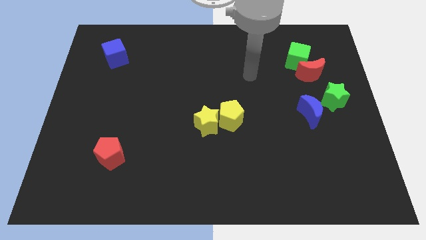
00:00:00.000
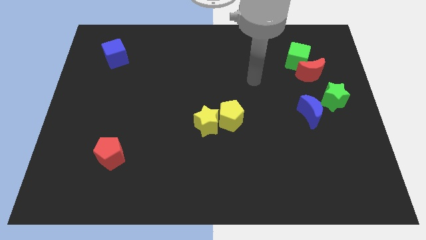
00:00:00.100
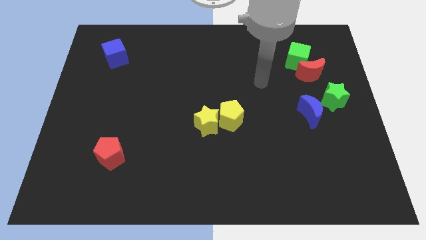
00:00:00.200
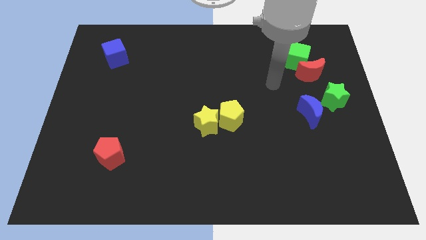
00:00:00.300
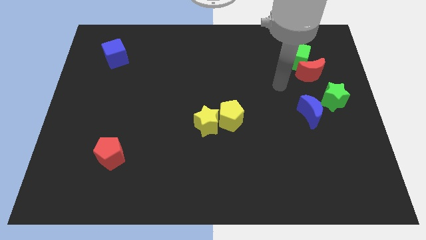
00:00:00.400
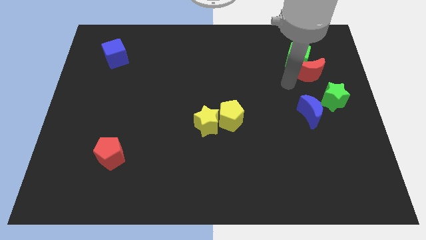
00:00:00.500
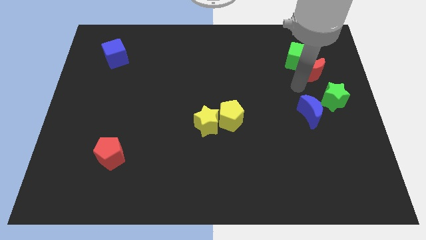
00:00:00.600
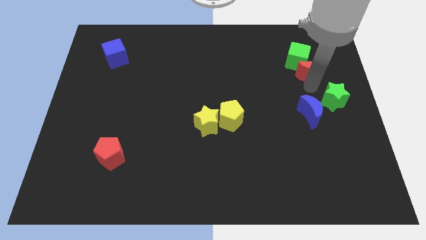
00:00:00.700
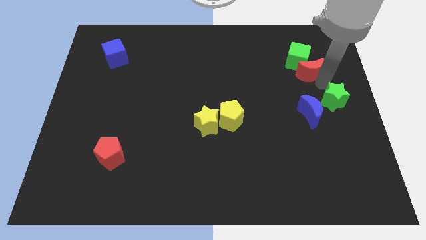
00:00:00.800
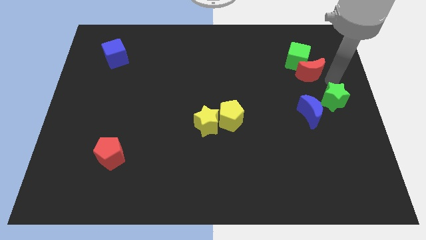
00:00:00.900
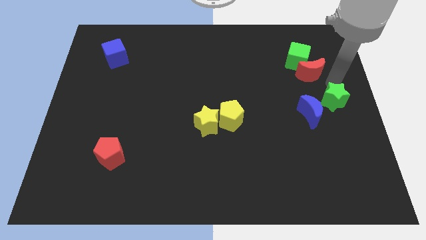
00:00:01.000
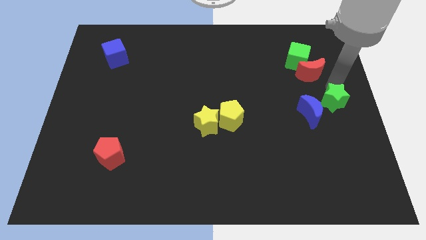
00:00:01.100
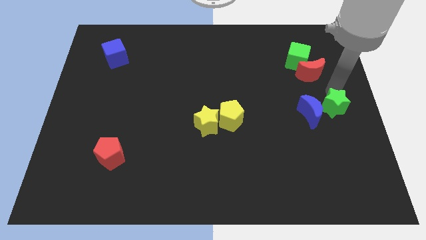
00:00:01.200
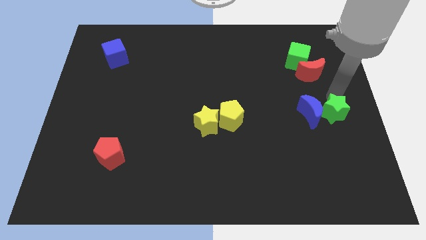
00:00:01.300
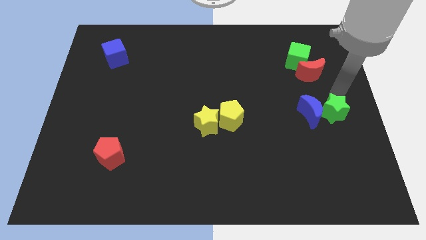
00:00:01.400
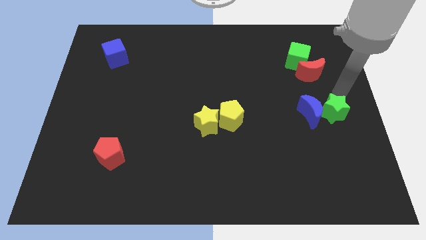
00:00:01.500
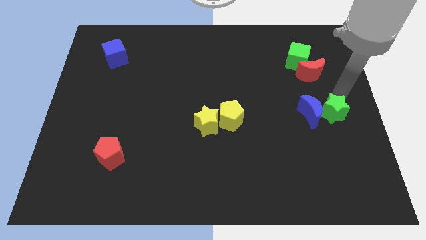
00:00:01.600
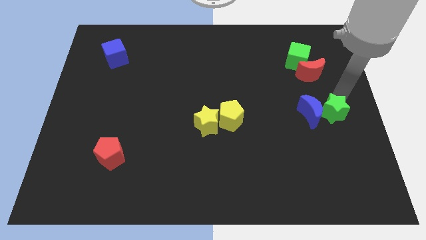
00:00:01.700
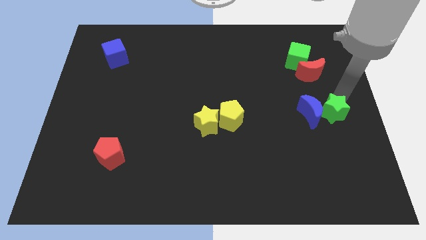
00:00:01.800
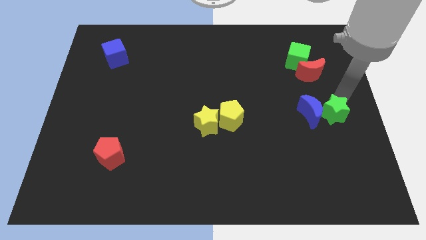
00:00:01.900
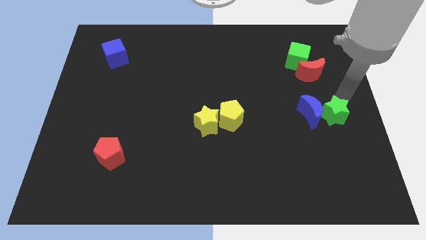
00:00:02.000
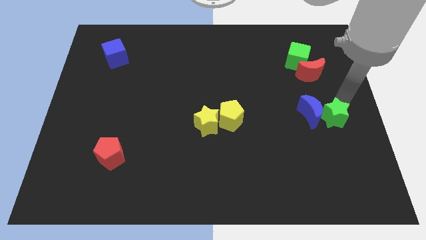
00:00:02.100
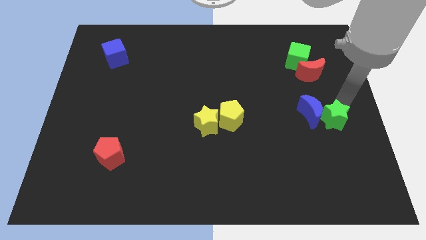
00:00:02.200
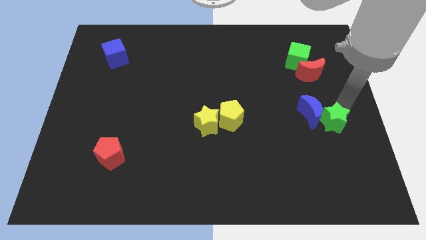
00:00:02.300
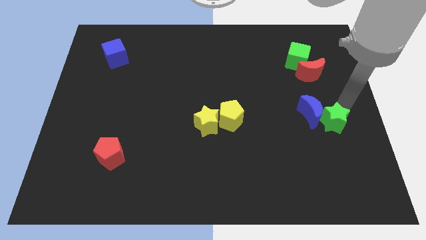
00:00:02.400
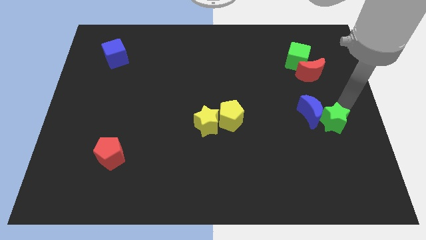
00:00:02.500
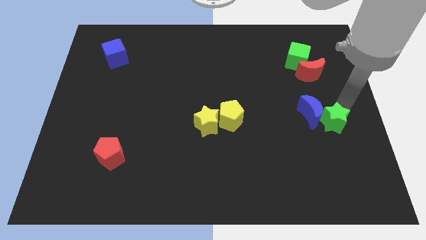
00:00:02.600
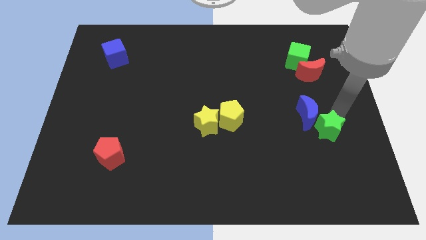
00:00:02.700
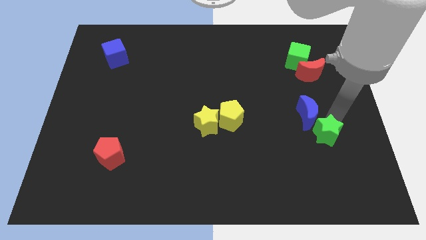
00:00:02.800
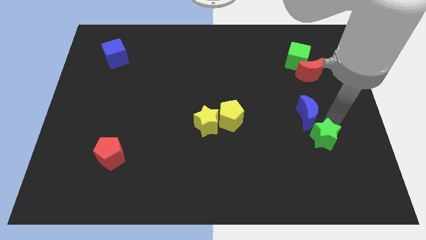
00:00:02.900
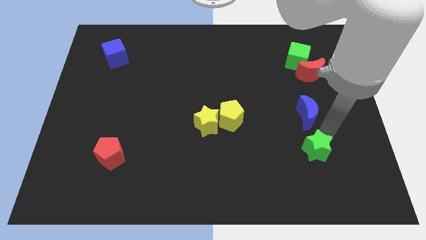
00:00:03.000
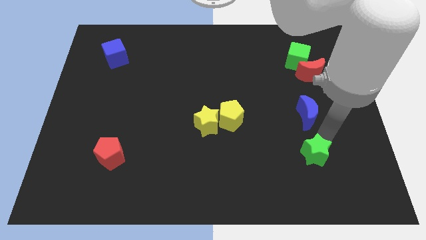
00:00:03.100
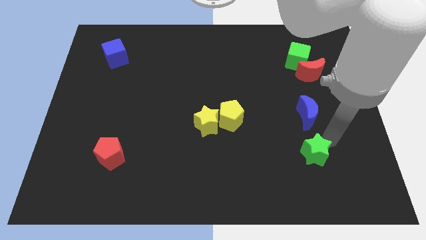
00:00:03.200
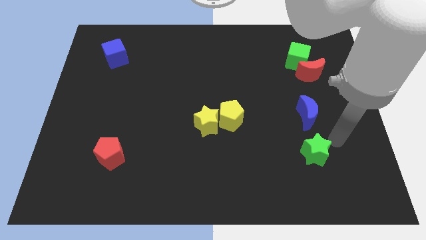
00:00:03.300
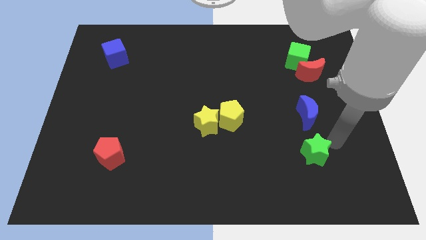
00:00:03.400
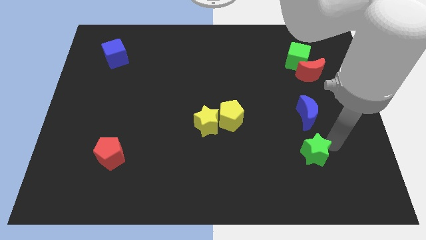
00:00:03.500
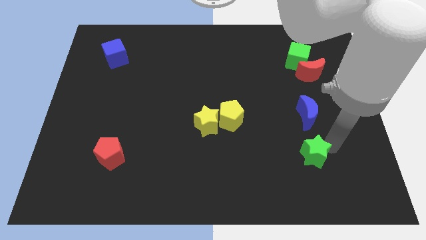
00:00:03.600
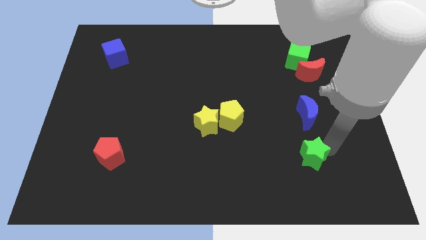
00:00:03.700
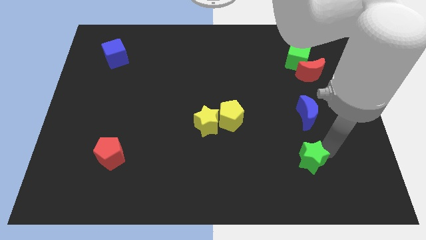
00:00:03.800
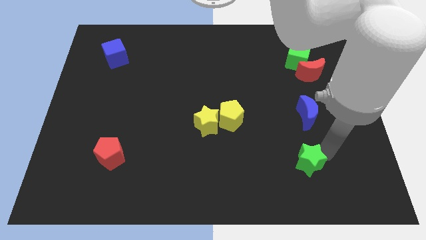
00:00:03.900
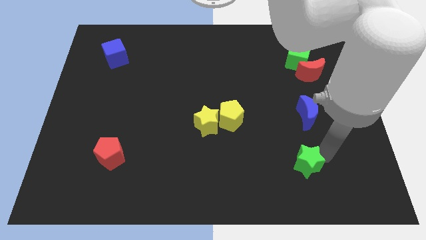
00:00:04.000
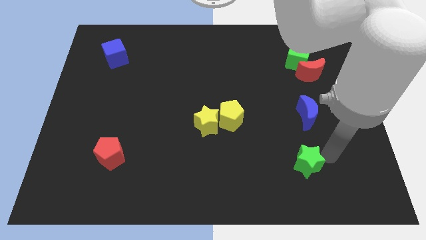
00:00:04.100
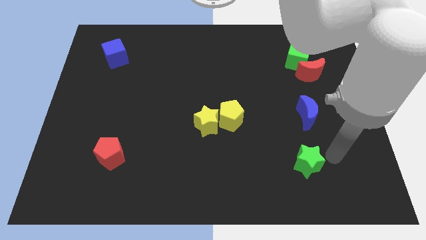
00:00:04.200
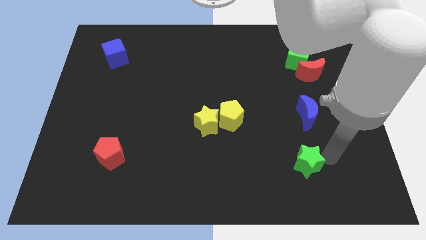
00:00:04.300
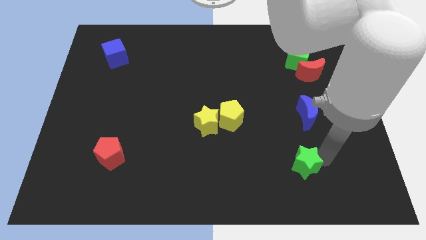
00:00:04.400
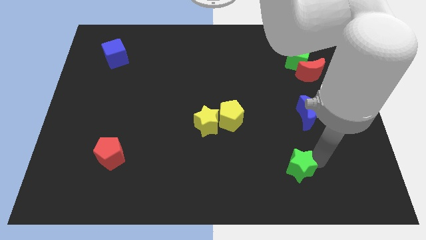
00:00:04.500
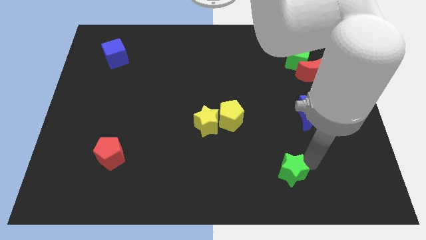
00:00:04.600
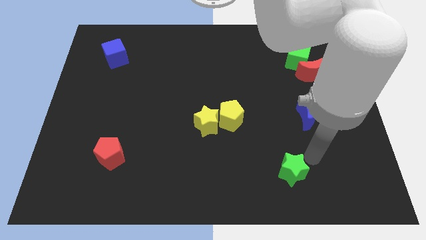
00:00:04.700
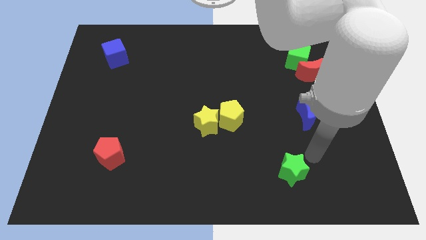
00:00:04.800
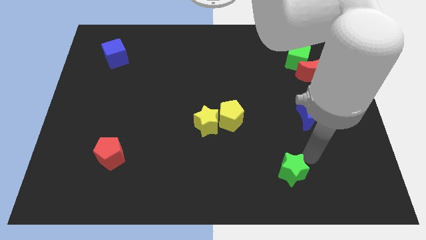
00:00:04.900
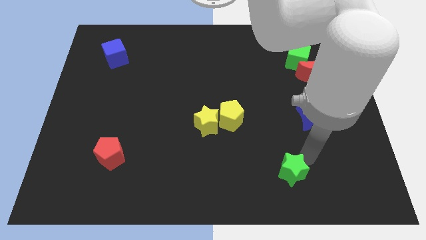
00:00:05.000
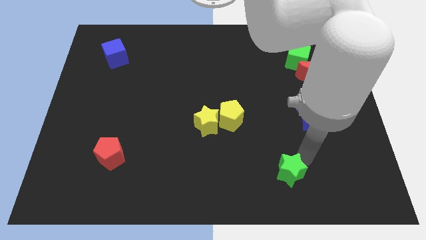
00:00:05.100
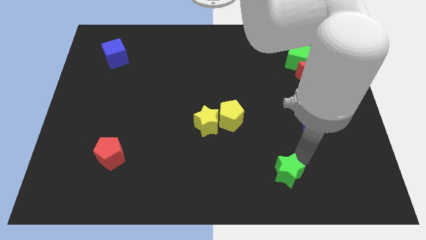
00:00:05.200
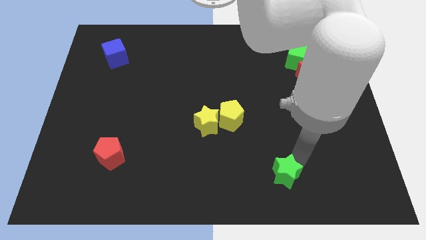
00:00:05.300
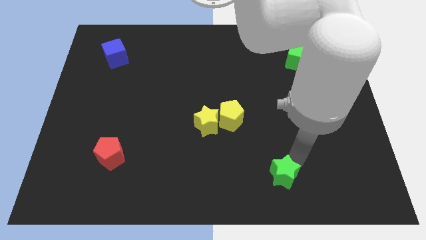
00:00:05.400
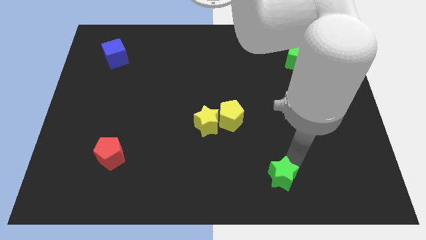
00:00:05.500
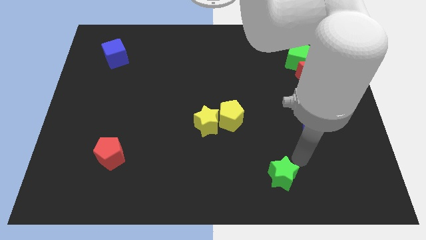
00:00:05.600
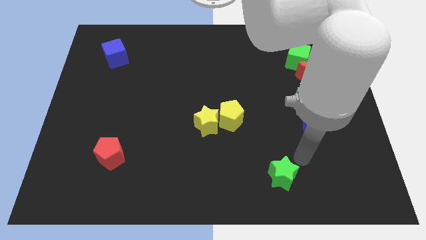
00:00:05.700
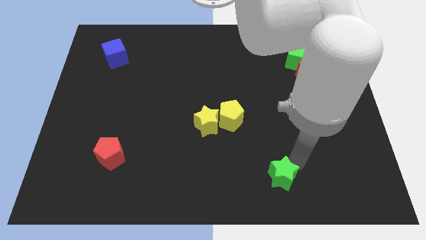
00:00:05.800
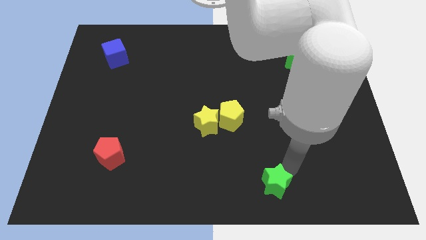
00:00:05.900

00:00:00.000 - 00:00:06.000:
push the green star to the bottom
